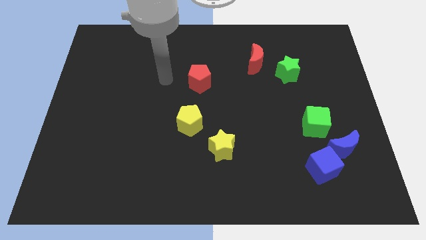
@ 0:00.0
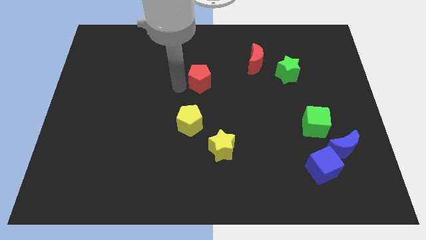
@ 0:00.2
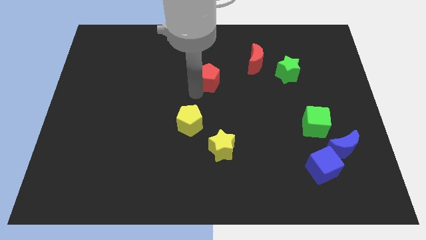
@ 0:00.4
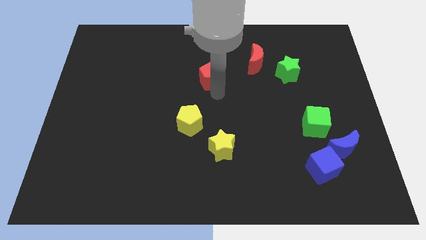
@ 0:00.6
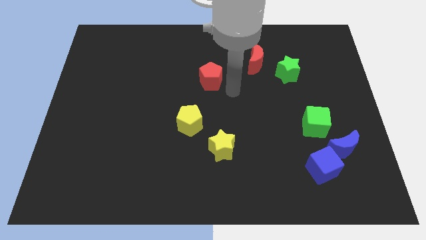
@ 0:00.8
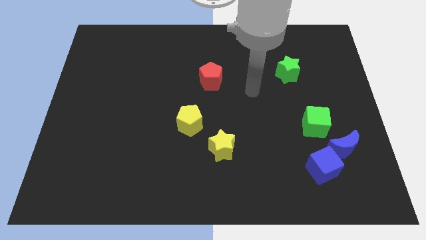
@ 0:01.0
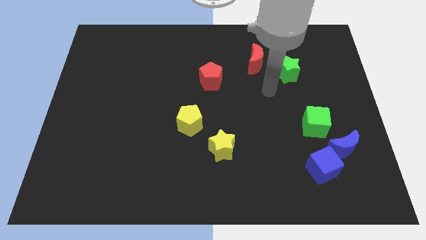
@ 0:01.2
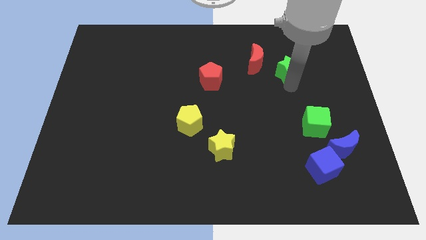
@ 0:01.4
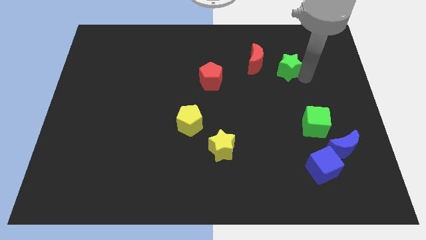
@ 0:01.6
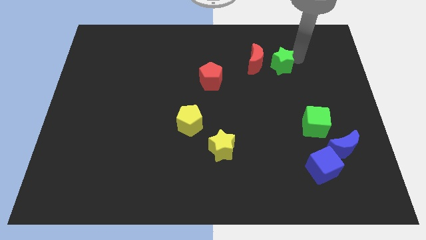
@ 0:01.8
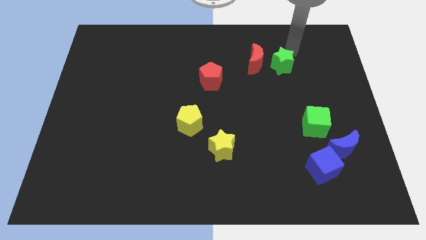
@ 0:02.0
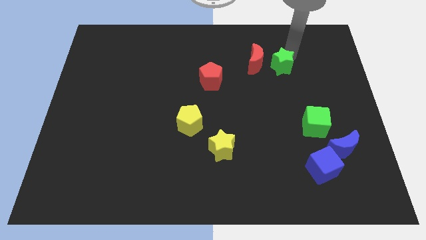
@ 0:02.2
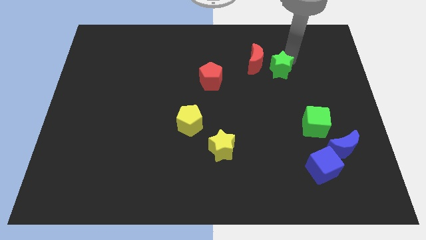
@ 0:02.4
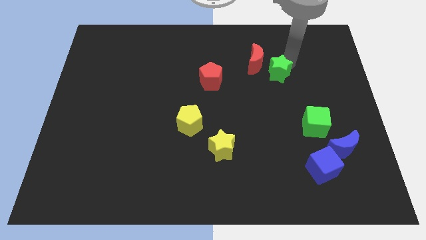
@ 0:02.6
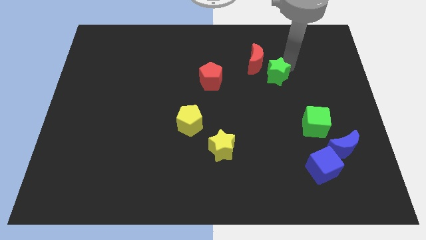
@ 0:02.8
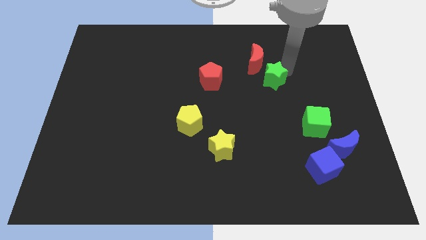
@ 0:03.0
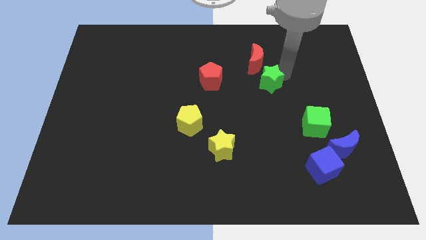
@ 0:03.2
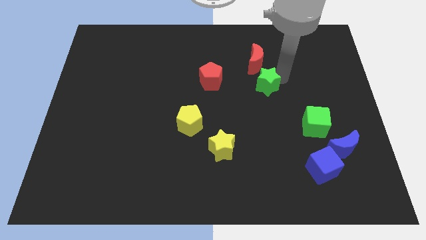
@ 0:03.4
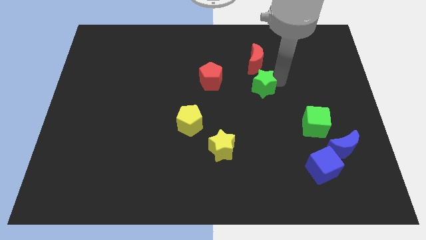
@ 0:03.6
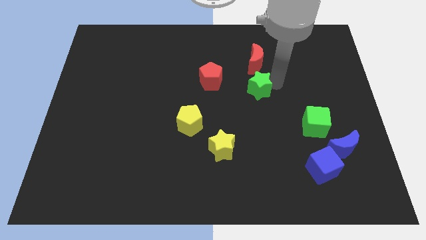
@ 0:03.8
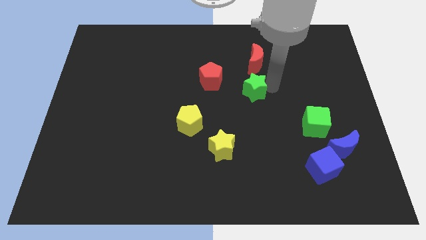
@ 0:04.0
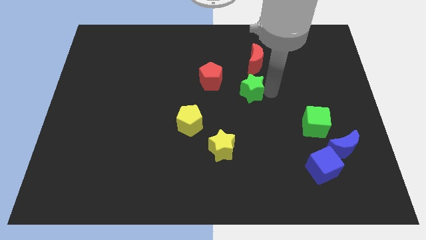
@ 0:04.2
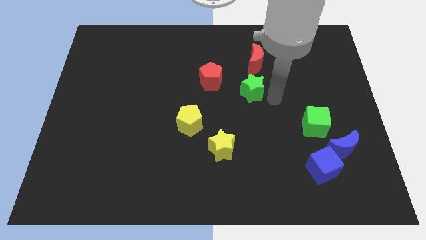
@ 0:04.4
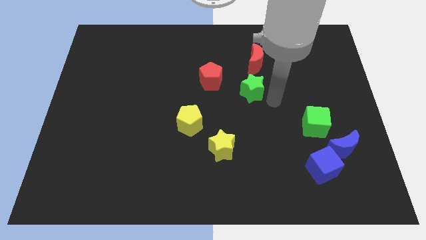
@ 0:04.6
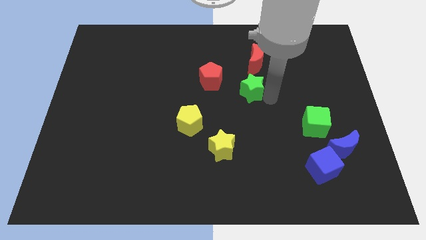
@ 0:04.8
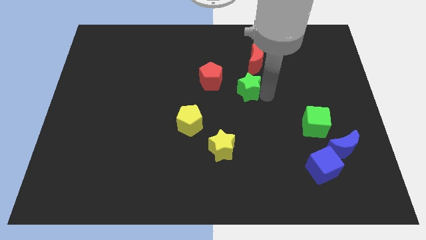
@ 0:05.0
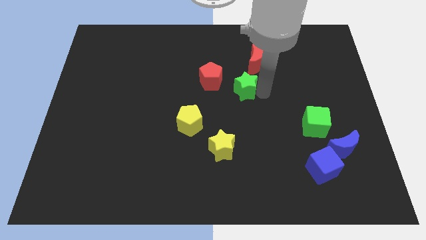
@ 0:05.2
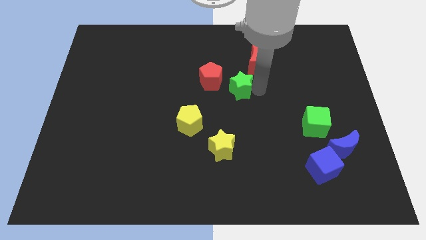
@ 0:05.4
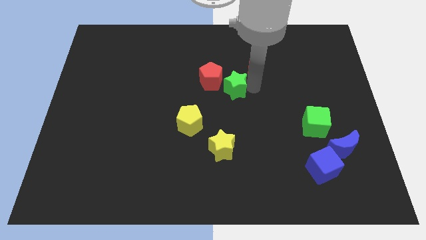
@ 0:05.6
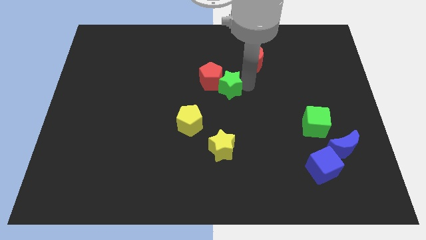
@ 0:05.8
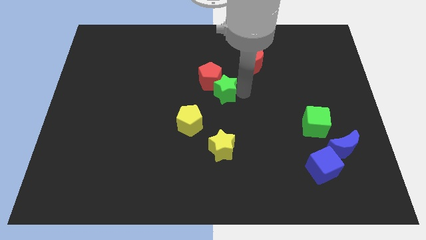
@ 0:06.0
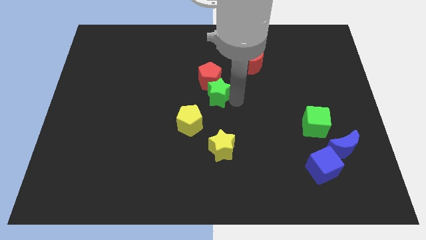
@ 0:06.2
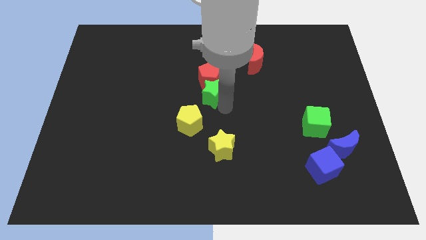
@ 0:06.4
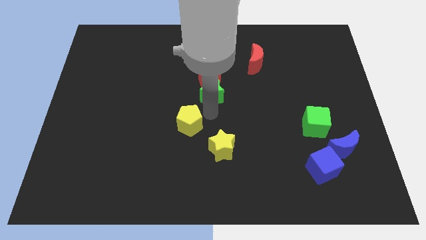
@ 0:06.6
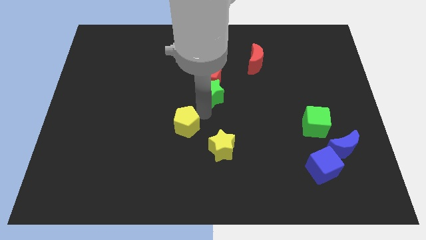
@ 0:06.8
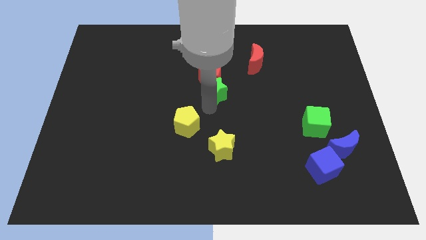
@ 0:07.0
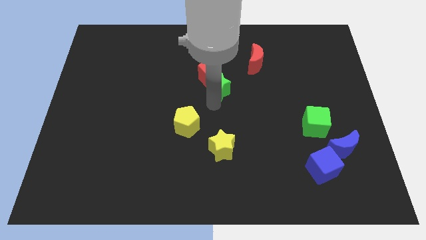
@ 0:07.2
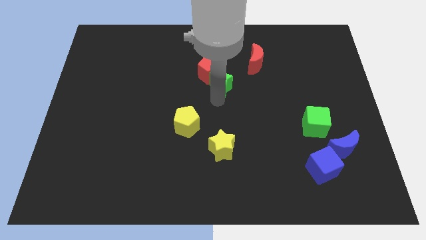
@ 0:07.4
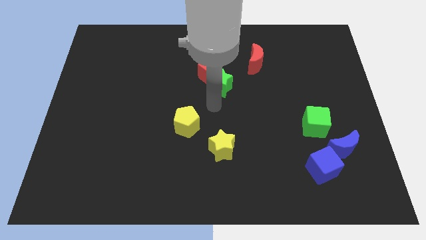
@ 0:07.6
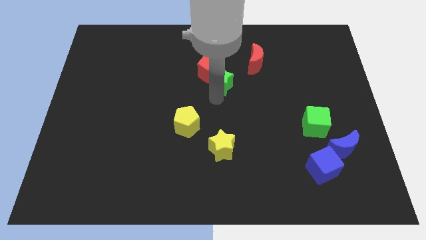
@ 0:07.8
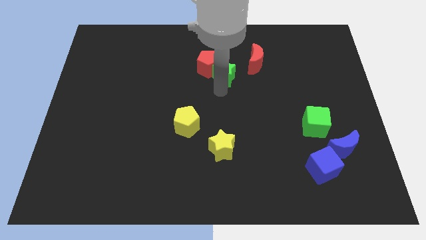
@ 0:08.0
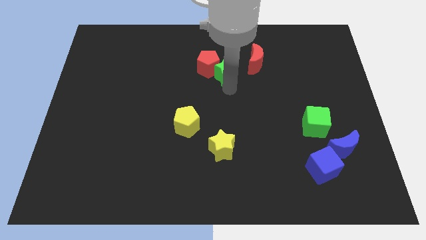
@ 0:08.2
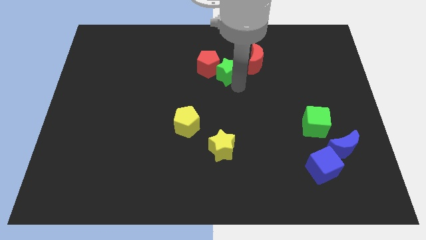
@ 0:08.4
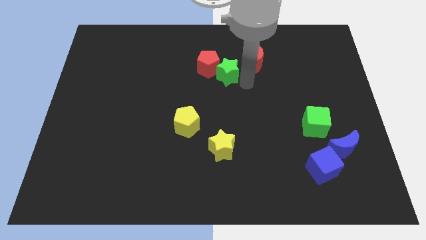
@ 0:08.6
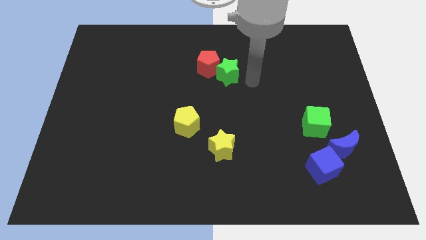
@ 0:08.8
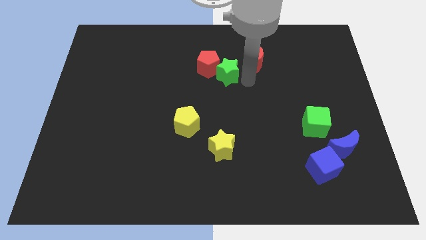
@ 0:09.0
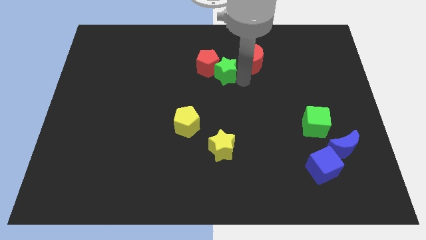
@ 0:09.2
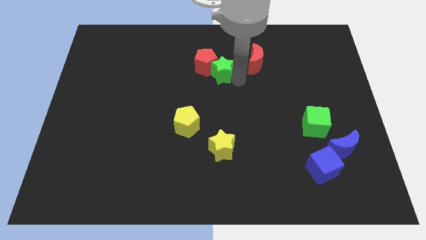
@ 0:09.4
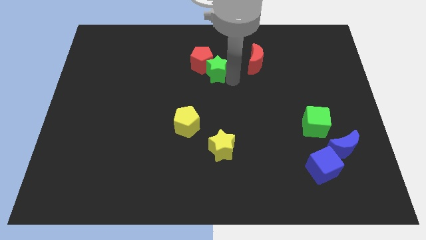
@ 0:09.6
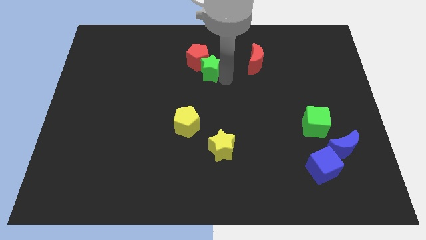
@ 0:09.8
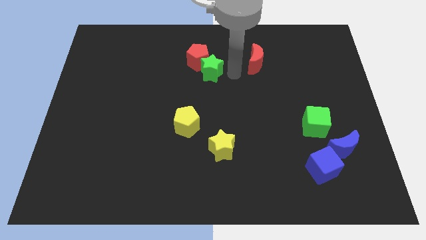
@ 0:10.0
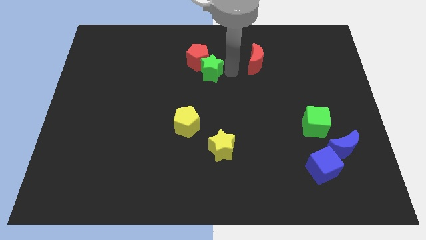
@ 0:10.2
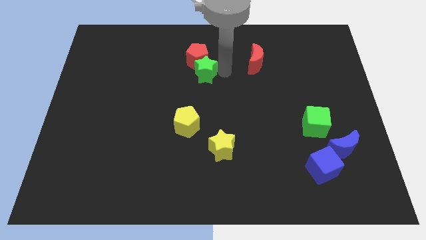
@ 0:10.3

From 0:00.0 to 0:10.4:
slide the green star to the left

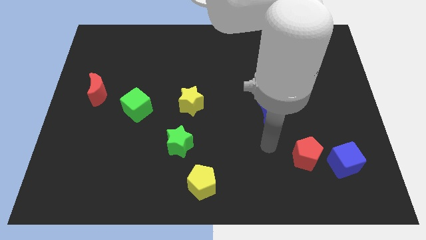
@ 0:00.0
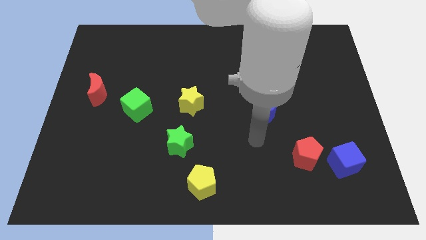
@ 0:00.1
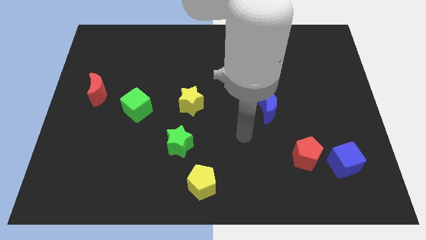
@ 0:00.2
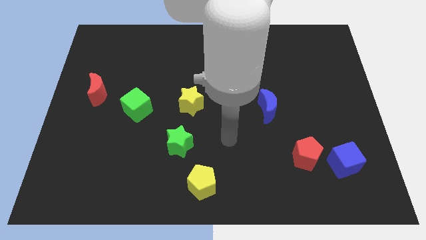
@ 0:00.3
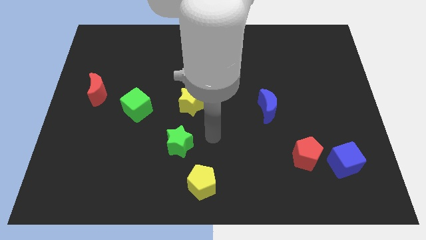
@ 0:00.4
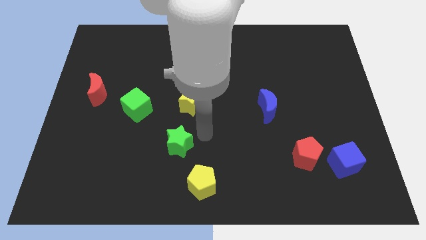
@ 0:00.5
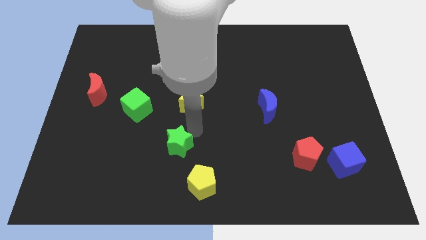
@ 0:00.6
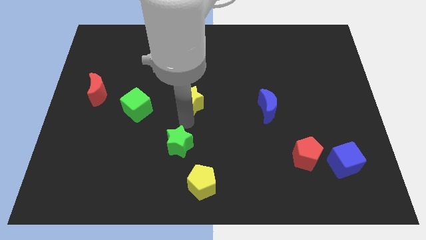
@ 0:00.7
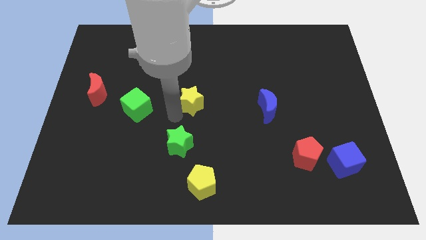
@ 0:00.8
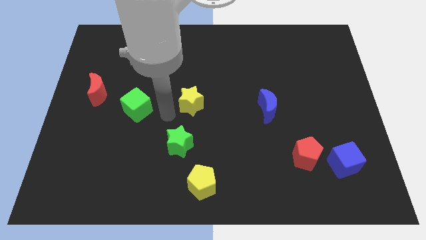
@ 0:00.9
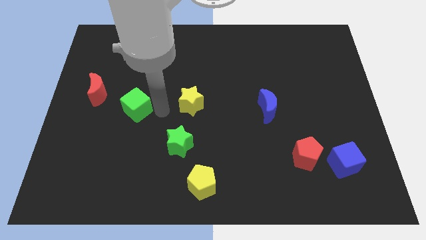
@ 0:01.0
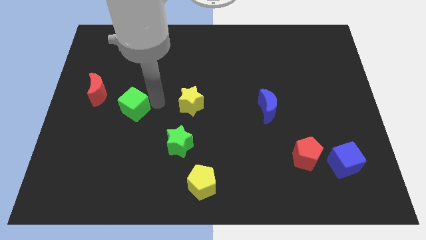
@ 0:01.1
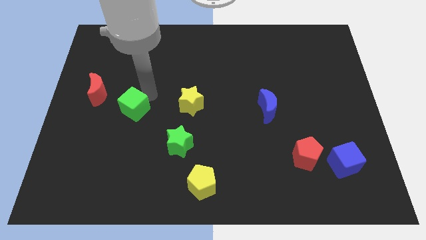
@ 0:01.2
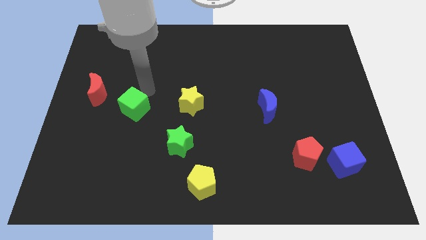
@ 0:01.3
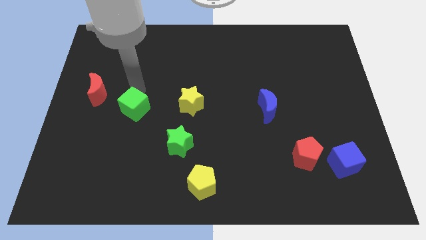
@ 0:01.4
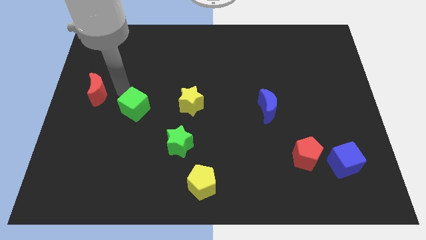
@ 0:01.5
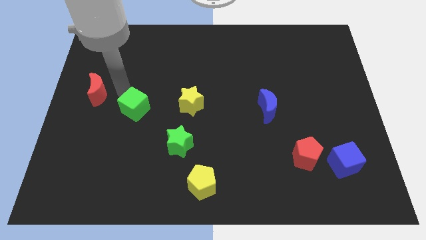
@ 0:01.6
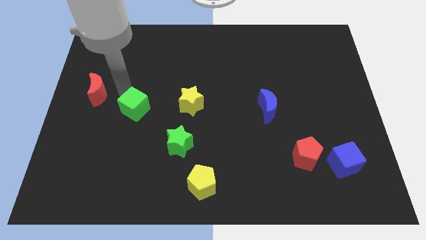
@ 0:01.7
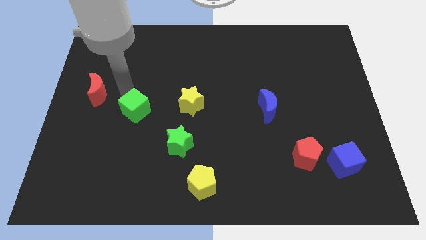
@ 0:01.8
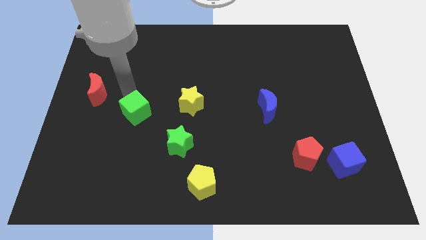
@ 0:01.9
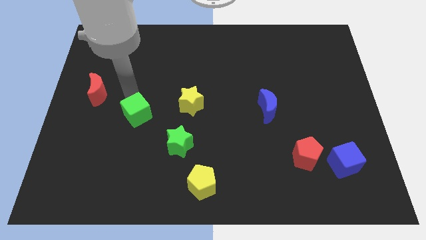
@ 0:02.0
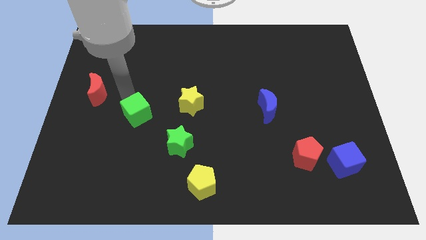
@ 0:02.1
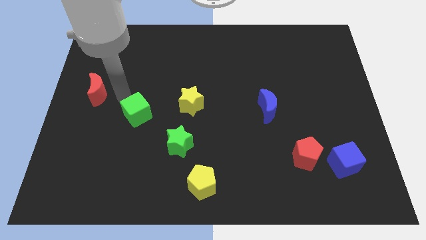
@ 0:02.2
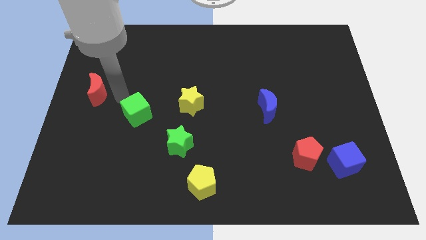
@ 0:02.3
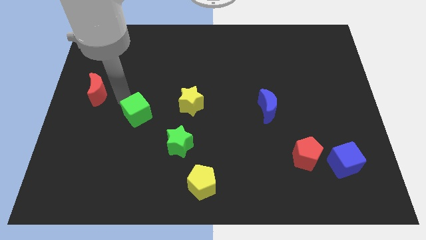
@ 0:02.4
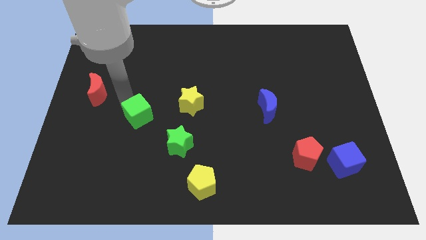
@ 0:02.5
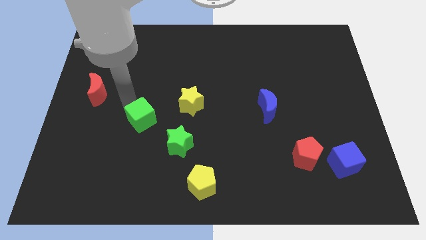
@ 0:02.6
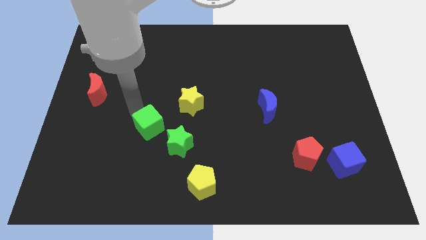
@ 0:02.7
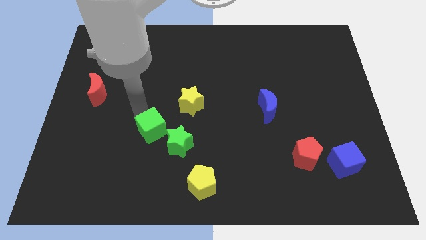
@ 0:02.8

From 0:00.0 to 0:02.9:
move the green cube diagonally downwards and to the right a bit

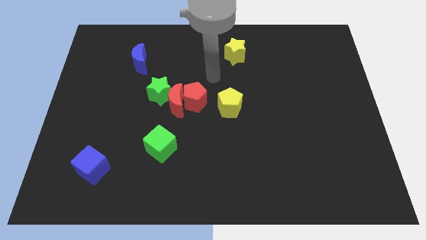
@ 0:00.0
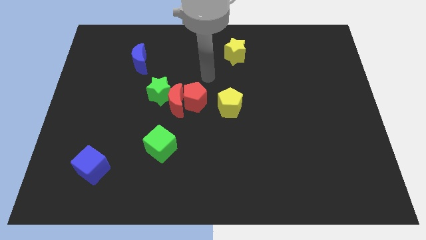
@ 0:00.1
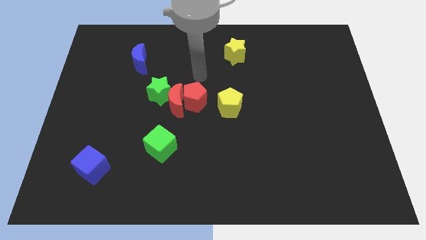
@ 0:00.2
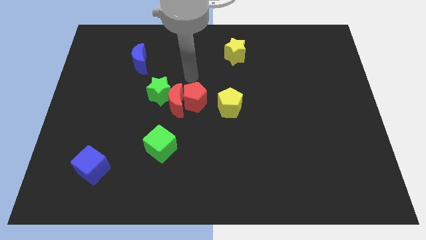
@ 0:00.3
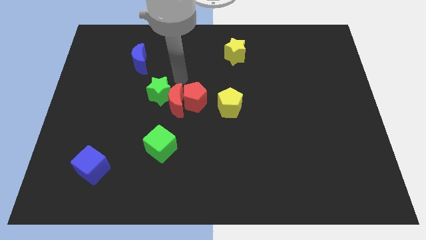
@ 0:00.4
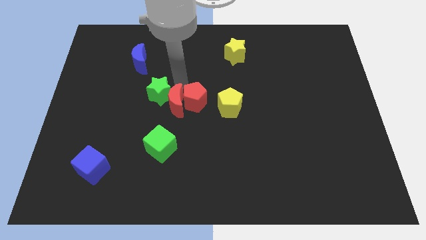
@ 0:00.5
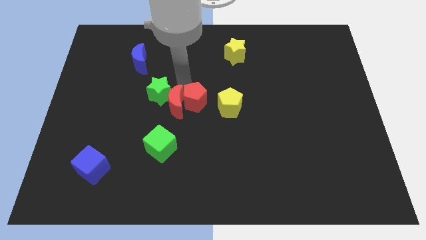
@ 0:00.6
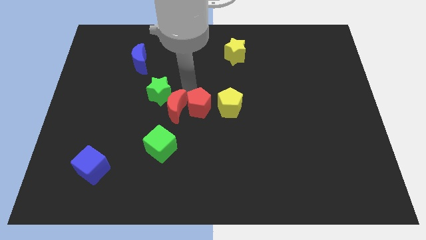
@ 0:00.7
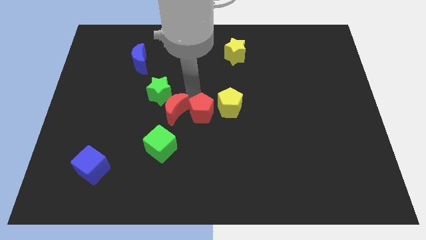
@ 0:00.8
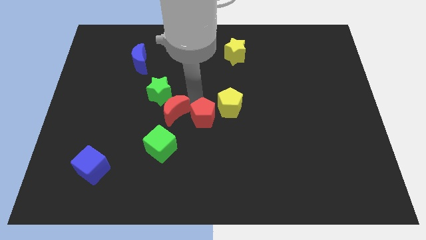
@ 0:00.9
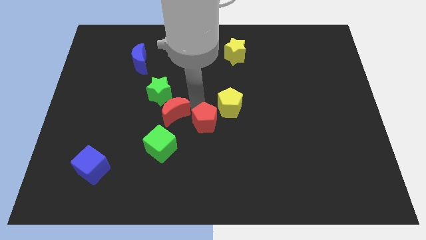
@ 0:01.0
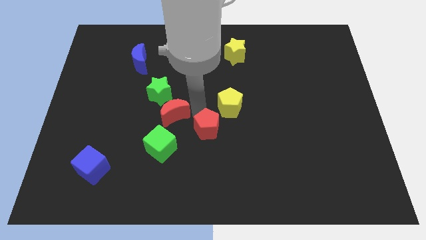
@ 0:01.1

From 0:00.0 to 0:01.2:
push the red pentagon a bit down and right diagonally
